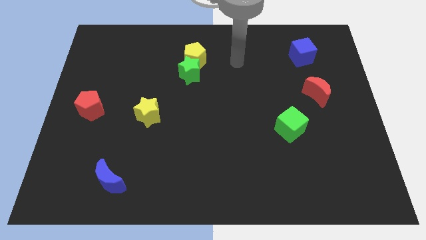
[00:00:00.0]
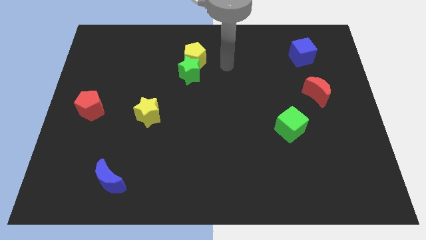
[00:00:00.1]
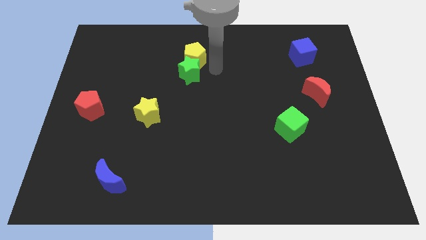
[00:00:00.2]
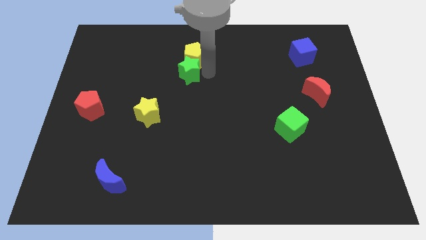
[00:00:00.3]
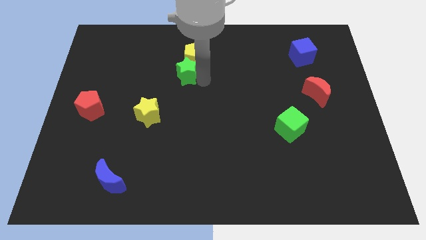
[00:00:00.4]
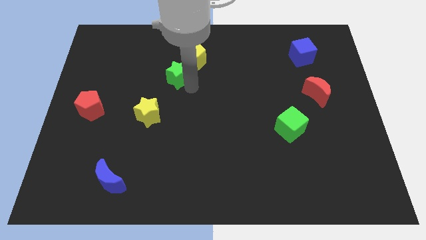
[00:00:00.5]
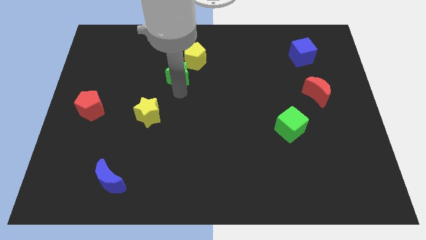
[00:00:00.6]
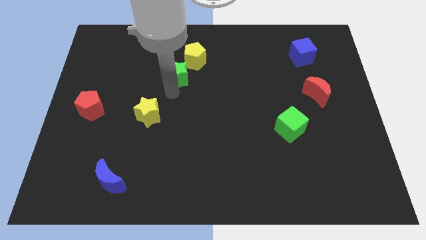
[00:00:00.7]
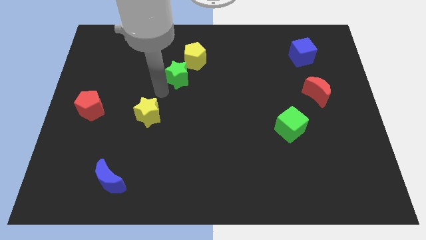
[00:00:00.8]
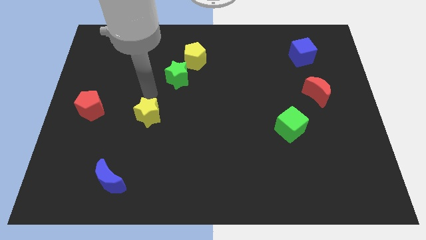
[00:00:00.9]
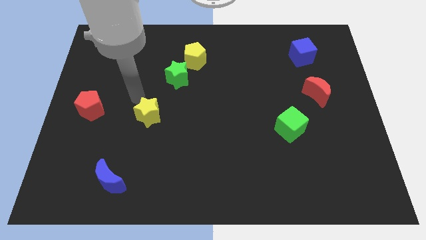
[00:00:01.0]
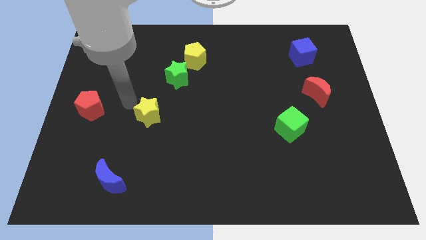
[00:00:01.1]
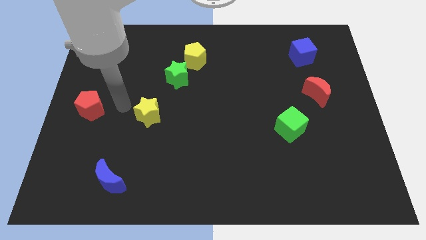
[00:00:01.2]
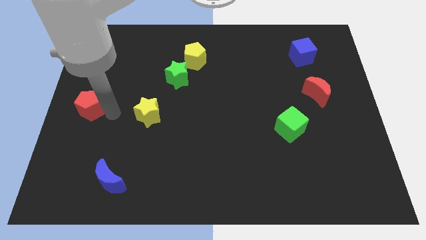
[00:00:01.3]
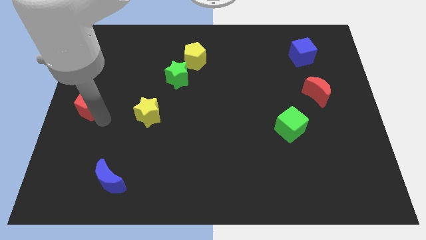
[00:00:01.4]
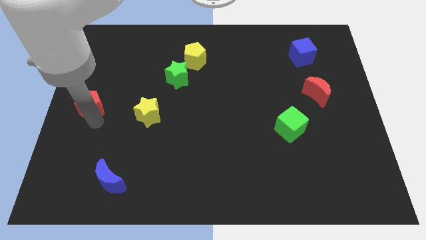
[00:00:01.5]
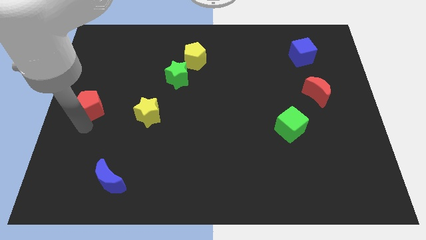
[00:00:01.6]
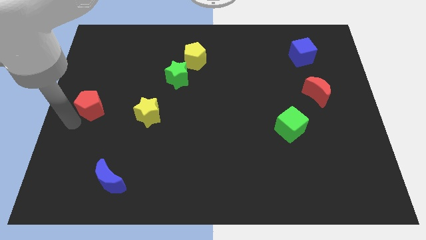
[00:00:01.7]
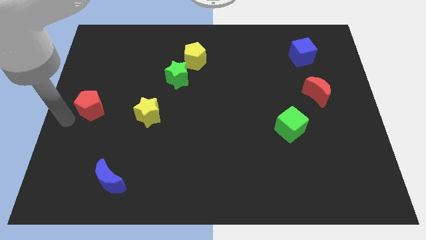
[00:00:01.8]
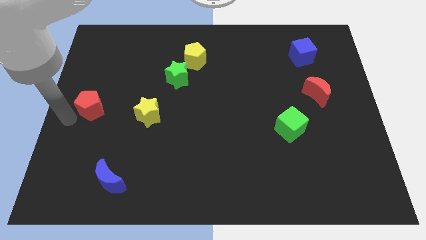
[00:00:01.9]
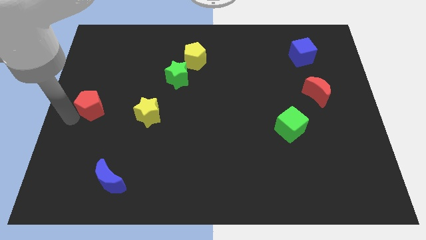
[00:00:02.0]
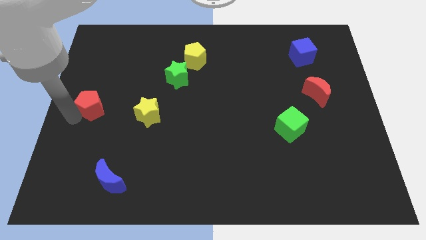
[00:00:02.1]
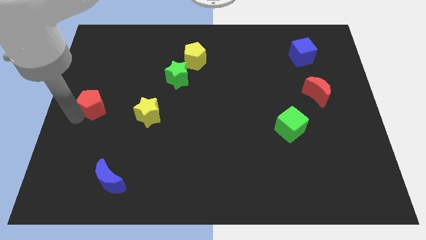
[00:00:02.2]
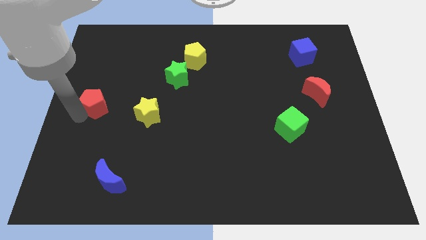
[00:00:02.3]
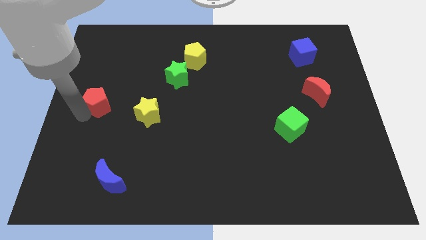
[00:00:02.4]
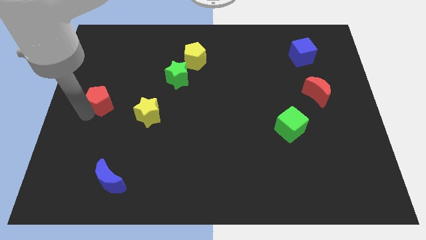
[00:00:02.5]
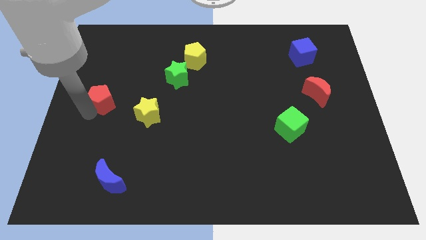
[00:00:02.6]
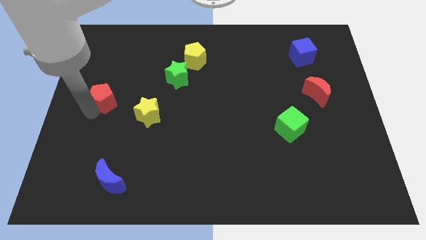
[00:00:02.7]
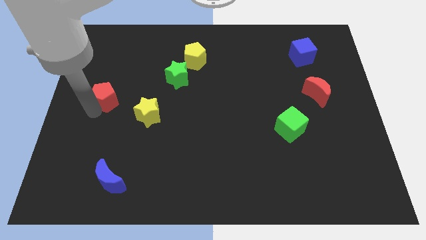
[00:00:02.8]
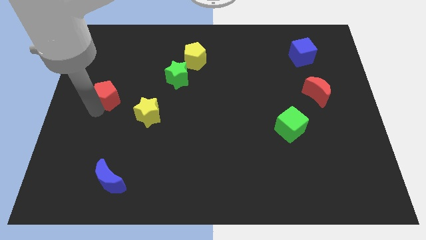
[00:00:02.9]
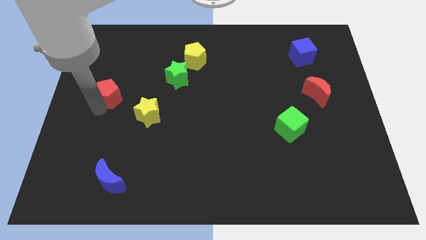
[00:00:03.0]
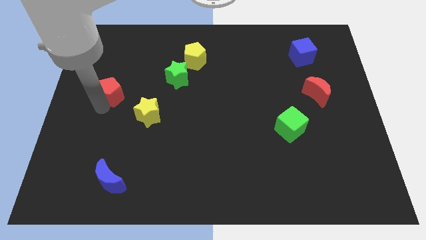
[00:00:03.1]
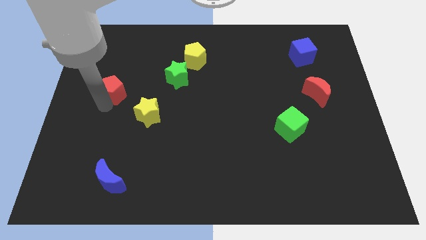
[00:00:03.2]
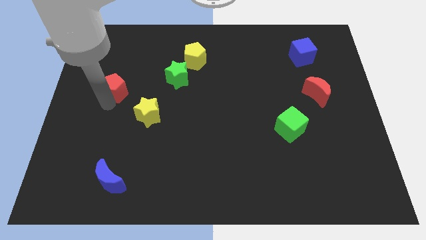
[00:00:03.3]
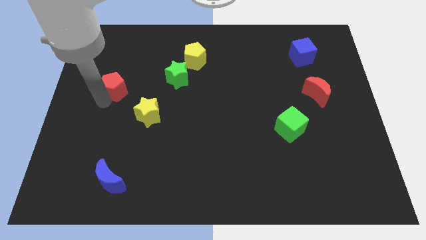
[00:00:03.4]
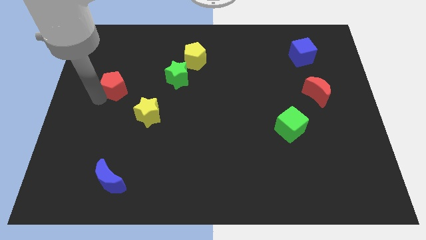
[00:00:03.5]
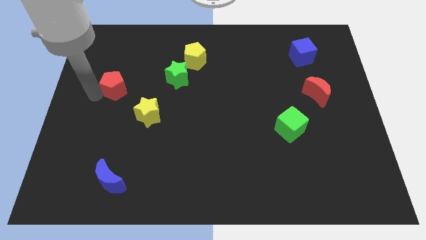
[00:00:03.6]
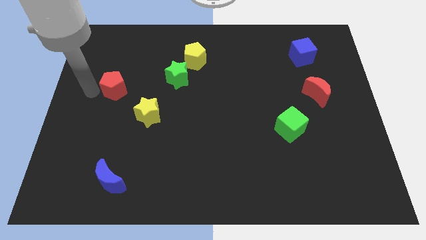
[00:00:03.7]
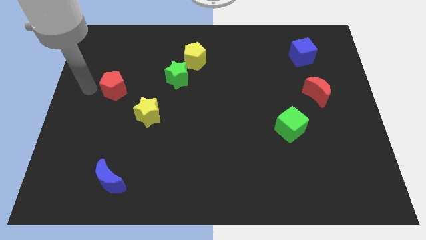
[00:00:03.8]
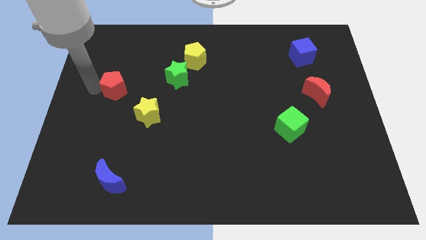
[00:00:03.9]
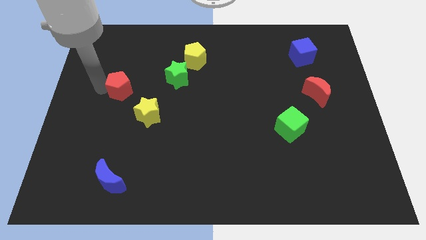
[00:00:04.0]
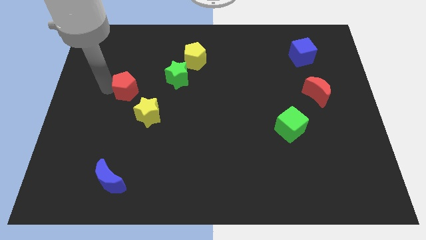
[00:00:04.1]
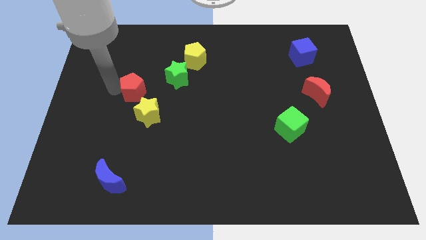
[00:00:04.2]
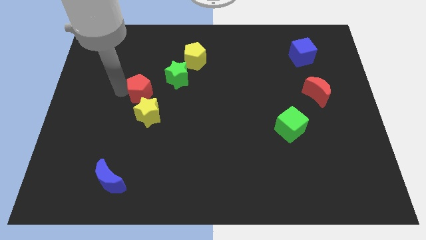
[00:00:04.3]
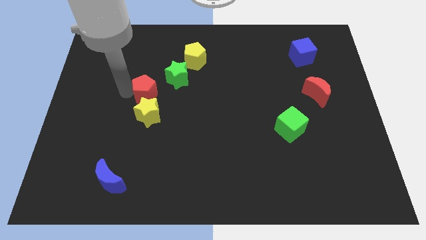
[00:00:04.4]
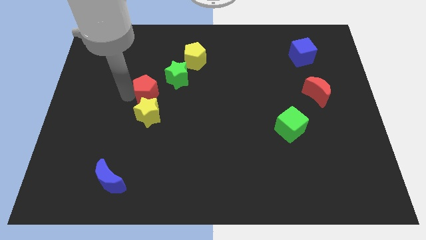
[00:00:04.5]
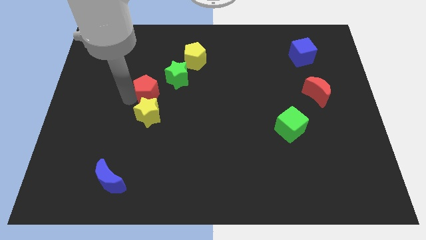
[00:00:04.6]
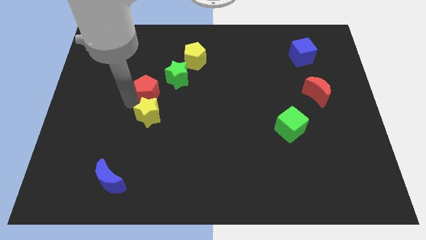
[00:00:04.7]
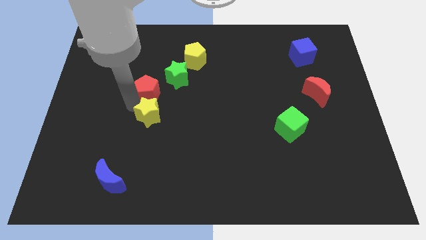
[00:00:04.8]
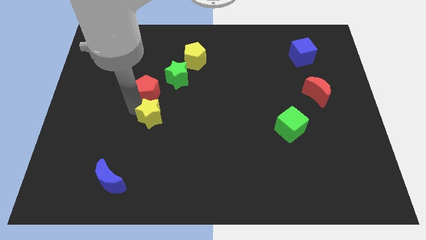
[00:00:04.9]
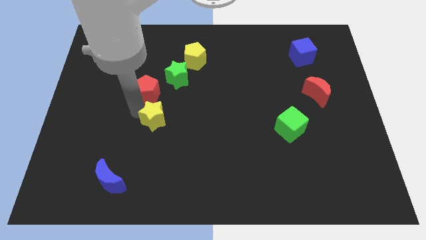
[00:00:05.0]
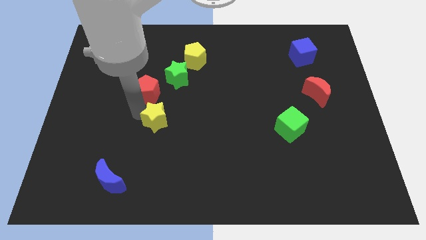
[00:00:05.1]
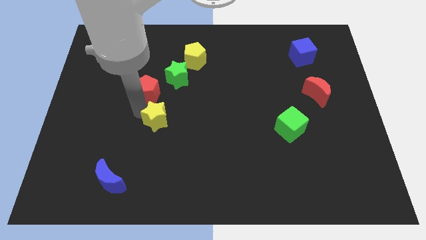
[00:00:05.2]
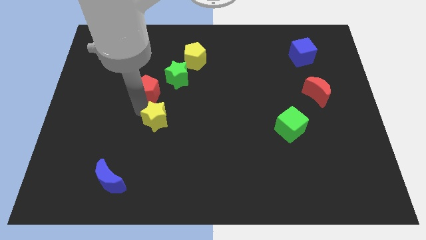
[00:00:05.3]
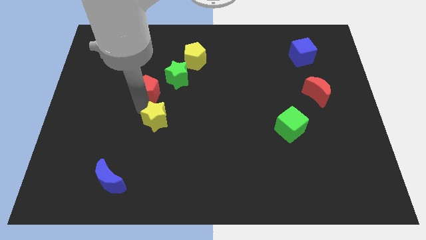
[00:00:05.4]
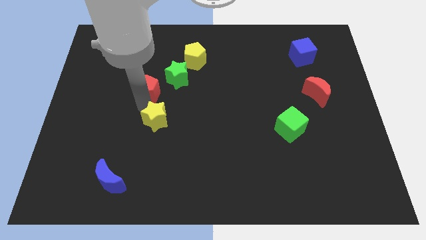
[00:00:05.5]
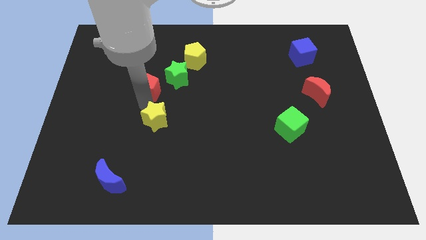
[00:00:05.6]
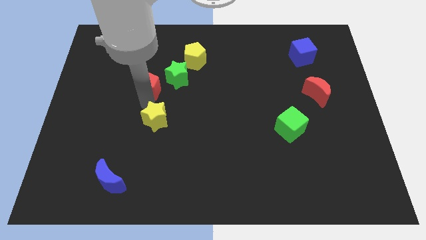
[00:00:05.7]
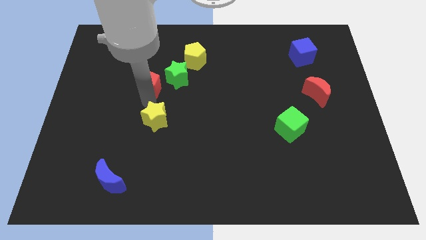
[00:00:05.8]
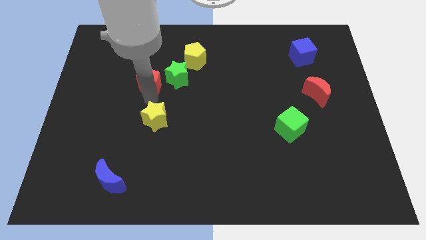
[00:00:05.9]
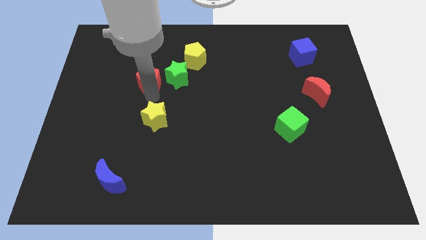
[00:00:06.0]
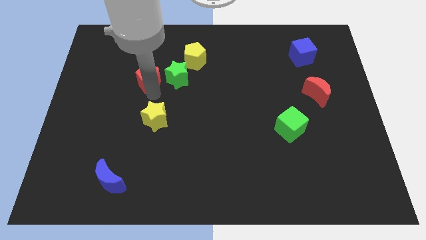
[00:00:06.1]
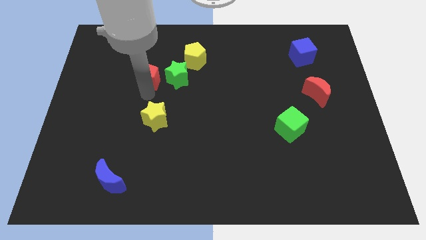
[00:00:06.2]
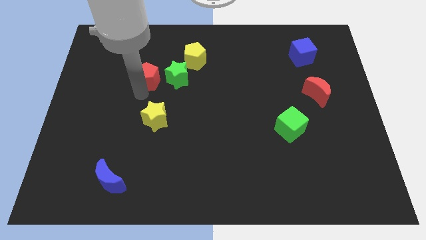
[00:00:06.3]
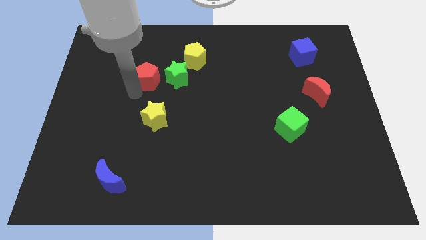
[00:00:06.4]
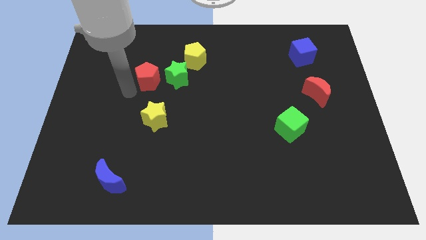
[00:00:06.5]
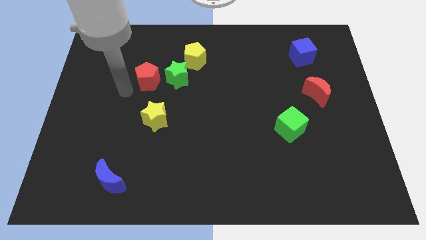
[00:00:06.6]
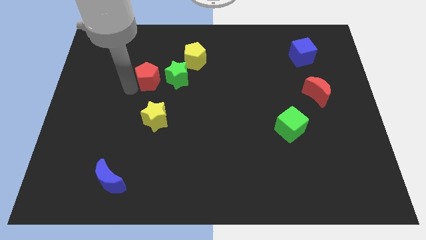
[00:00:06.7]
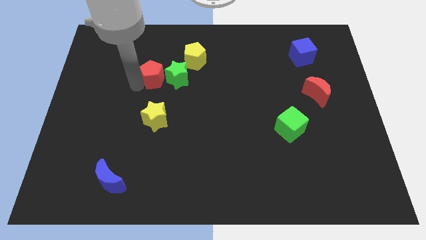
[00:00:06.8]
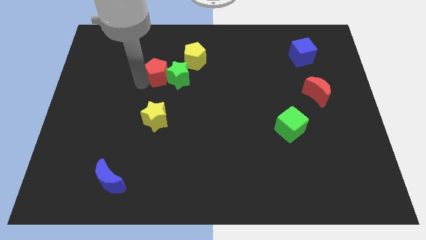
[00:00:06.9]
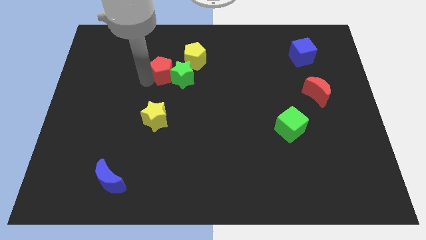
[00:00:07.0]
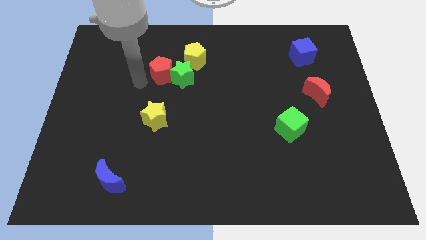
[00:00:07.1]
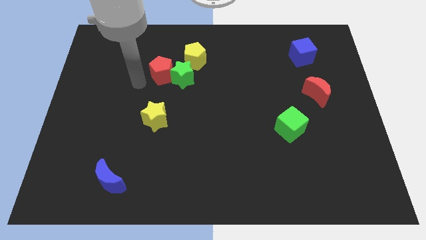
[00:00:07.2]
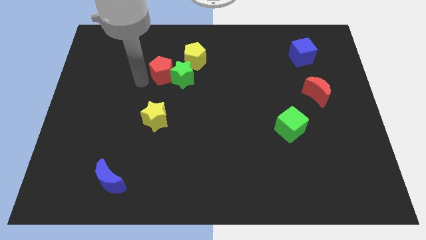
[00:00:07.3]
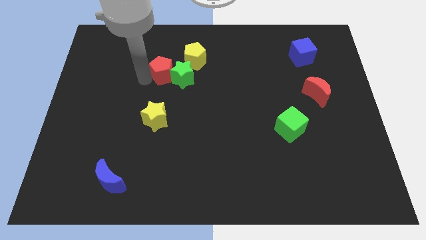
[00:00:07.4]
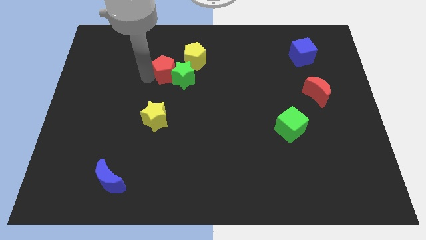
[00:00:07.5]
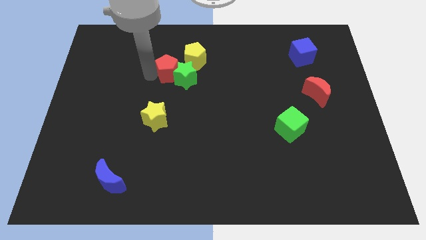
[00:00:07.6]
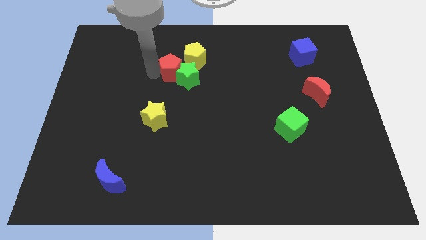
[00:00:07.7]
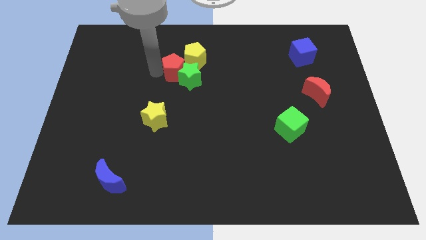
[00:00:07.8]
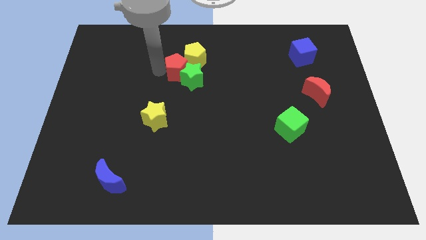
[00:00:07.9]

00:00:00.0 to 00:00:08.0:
move the red pentagon close to the yellow pentagon
